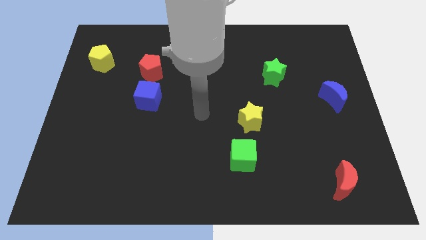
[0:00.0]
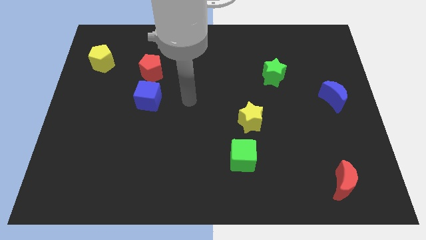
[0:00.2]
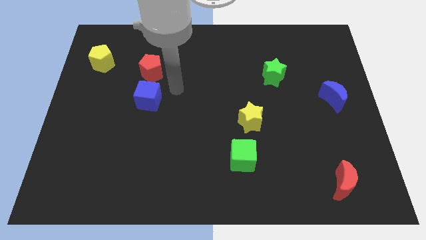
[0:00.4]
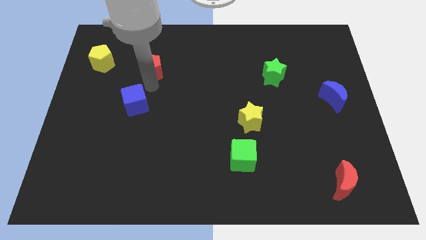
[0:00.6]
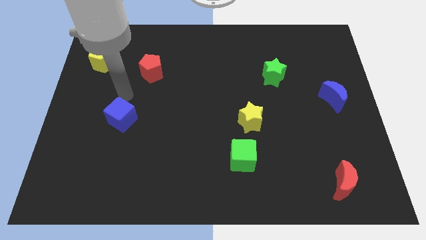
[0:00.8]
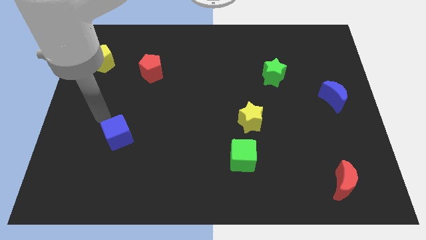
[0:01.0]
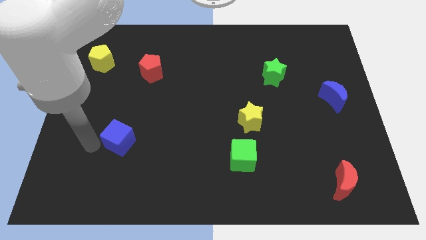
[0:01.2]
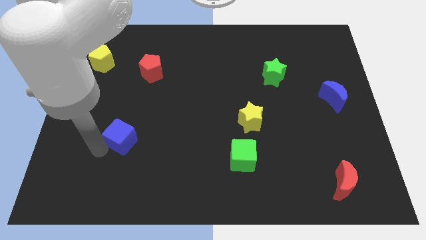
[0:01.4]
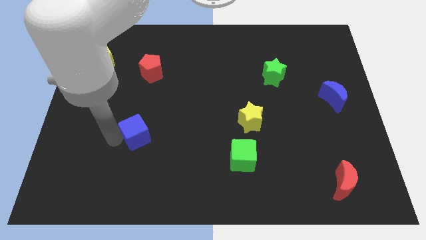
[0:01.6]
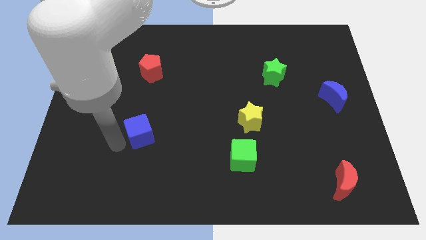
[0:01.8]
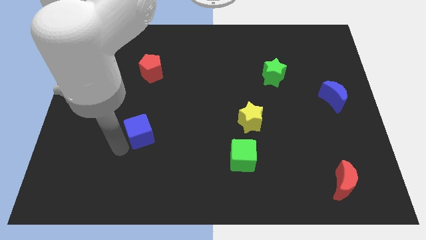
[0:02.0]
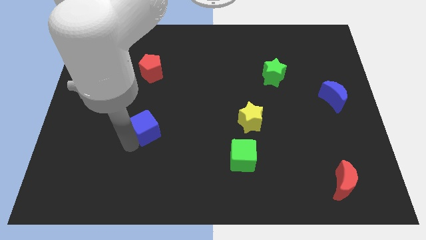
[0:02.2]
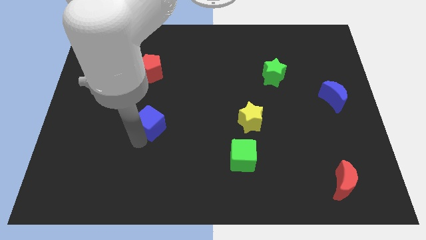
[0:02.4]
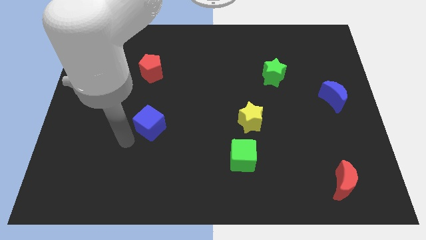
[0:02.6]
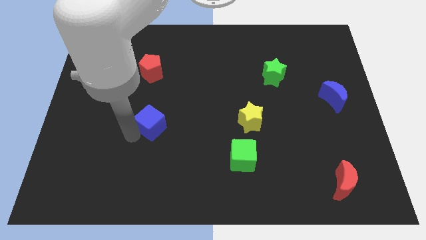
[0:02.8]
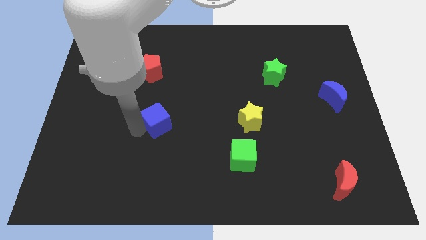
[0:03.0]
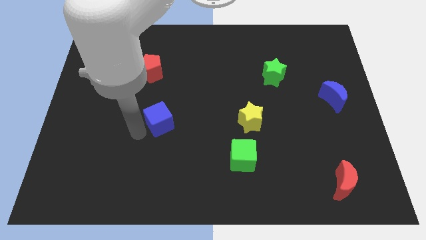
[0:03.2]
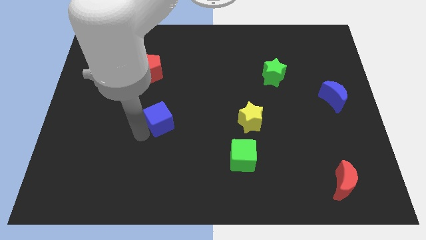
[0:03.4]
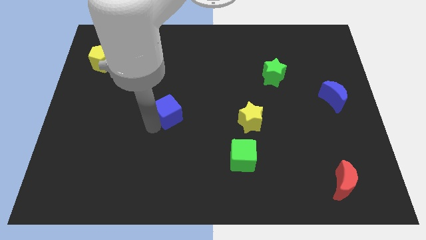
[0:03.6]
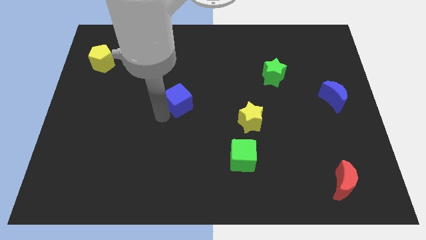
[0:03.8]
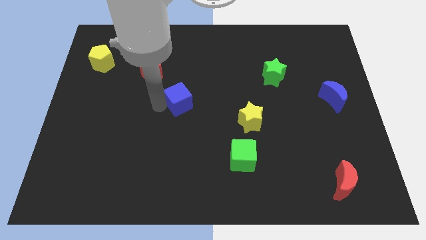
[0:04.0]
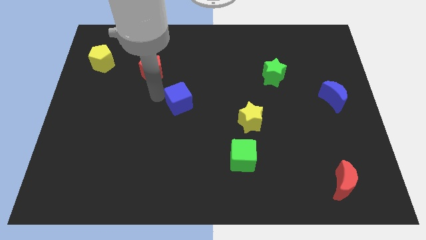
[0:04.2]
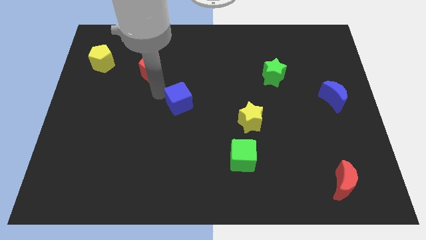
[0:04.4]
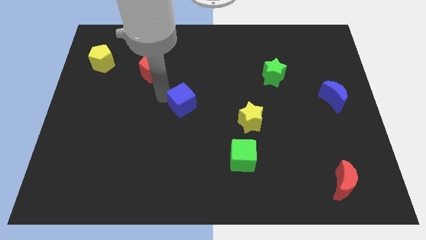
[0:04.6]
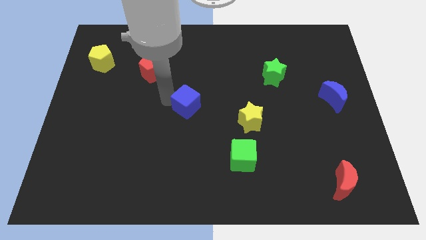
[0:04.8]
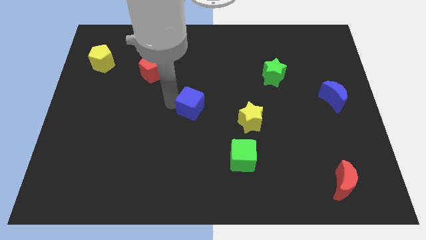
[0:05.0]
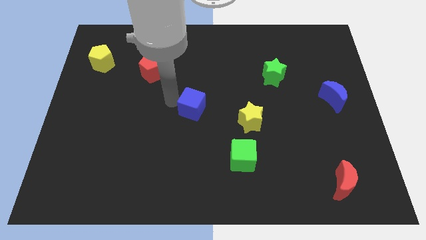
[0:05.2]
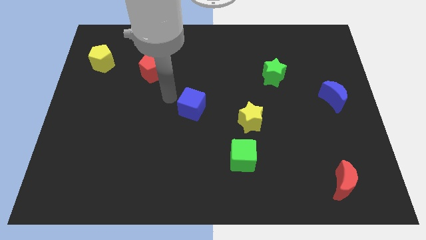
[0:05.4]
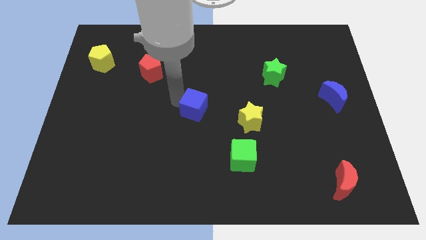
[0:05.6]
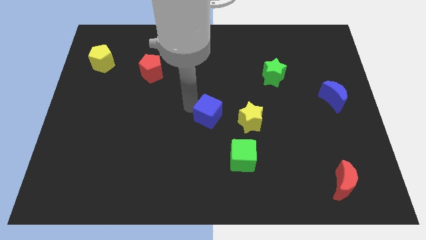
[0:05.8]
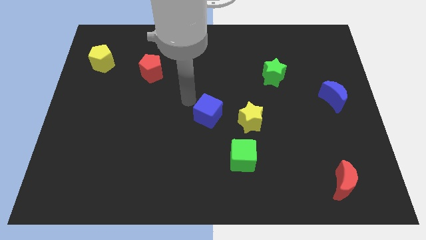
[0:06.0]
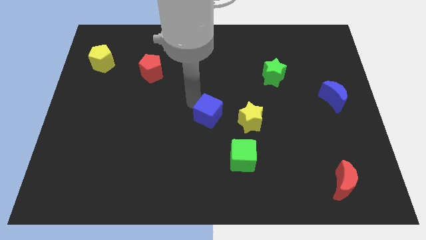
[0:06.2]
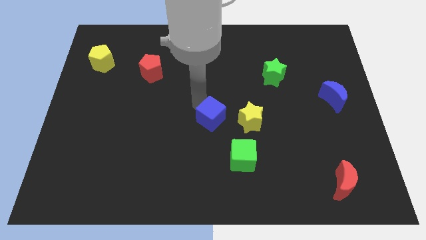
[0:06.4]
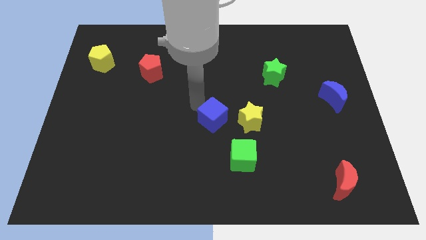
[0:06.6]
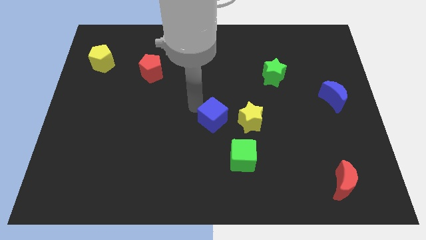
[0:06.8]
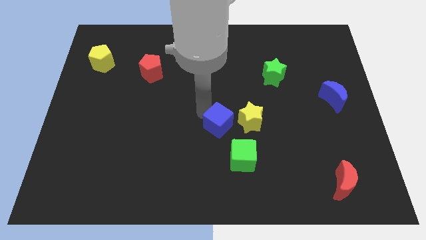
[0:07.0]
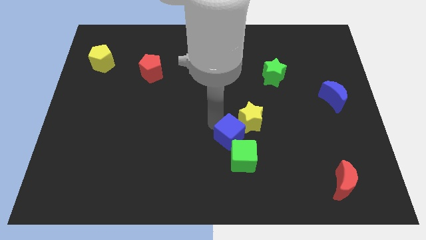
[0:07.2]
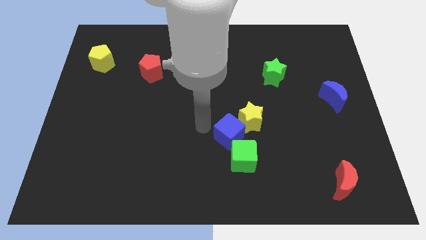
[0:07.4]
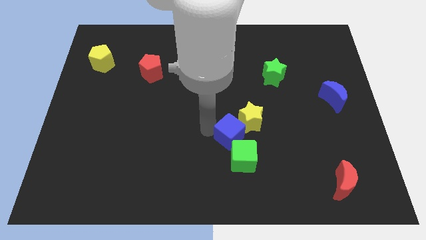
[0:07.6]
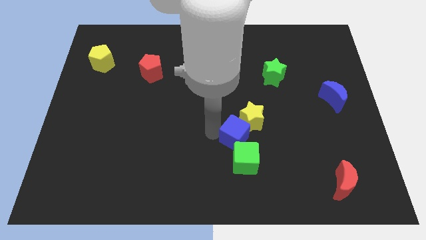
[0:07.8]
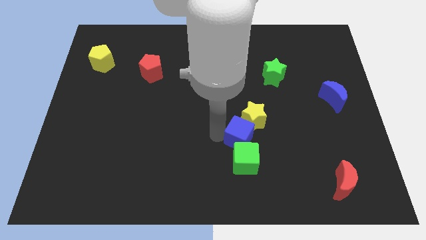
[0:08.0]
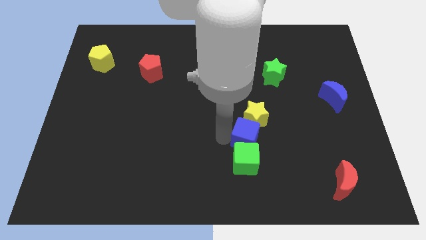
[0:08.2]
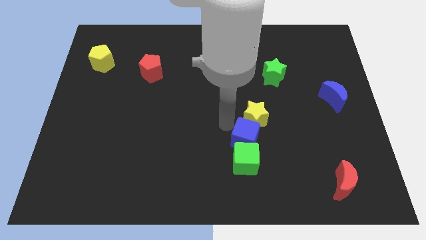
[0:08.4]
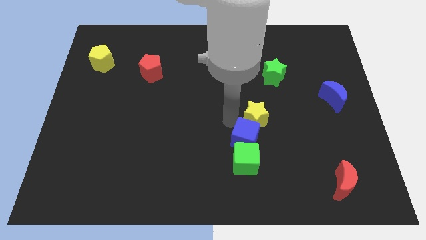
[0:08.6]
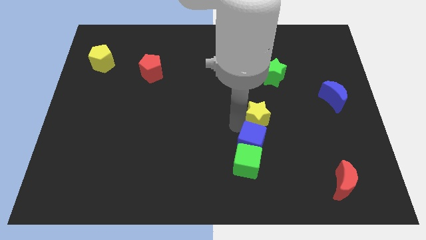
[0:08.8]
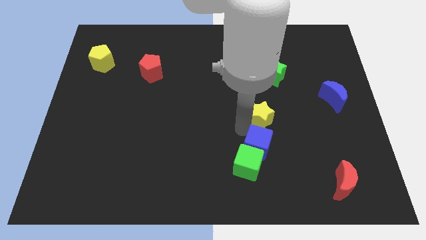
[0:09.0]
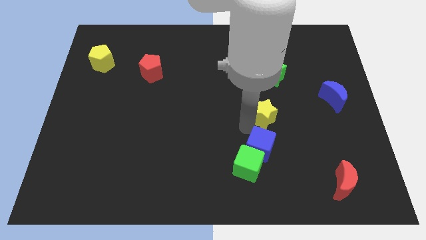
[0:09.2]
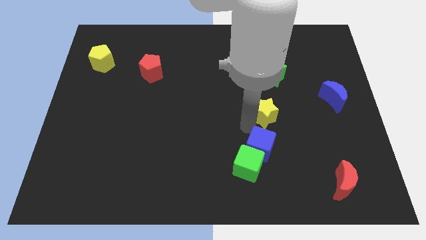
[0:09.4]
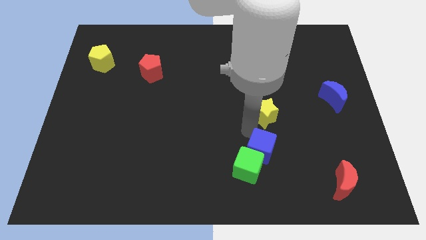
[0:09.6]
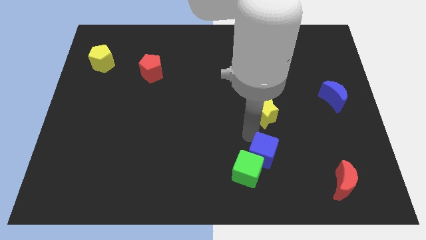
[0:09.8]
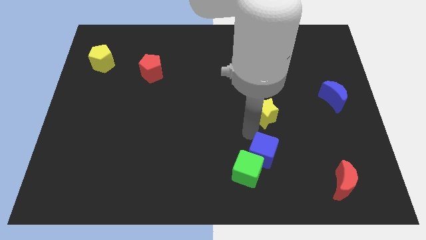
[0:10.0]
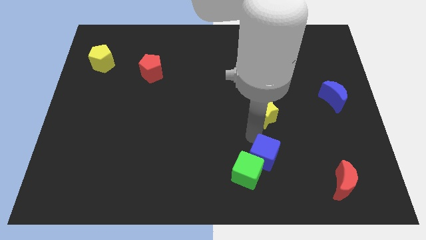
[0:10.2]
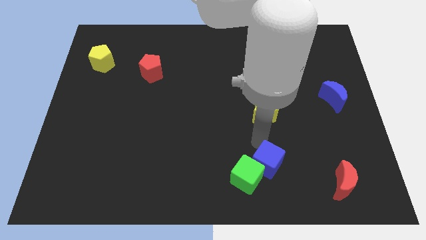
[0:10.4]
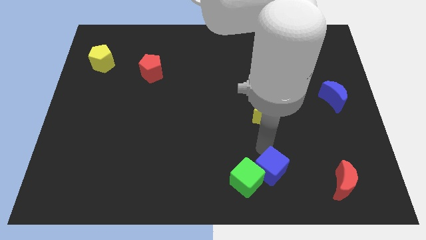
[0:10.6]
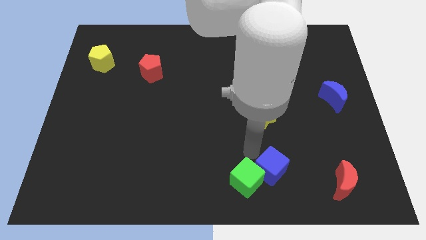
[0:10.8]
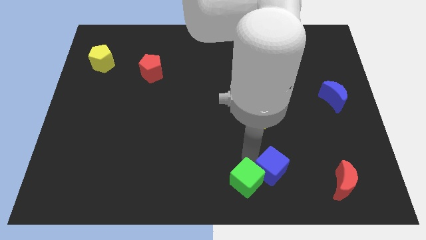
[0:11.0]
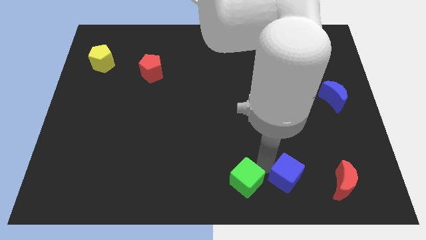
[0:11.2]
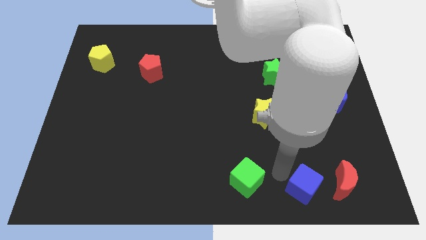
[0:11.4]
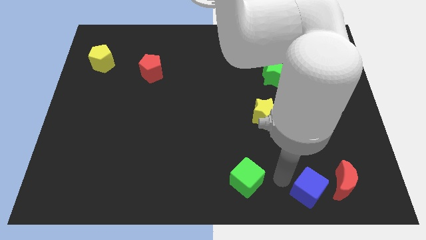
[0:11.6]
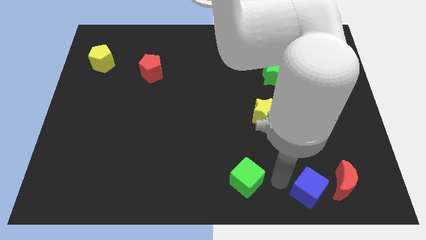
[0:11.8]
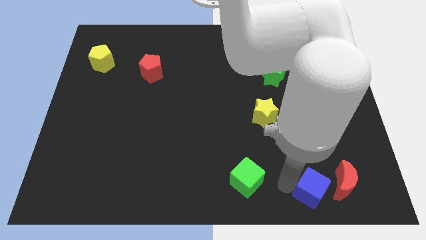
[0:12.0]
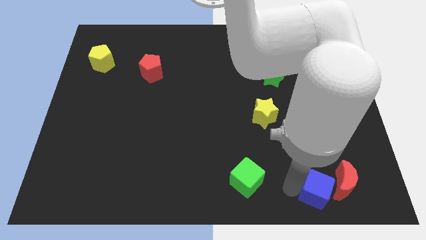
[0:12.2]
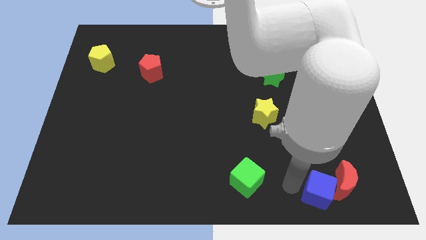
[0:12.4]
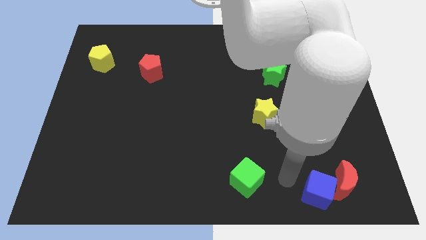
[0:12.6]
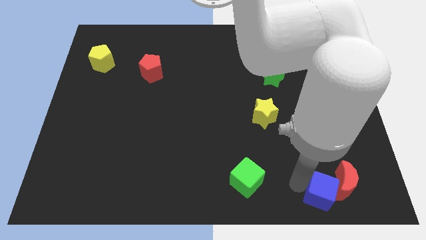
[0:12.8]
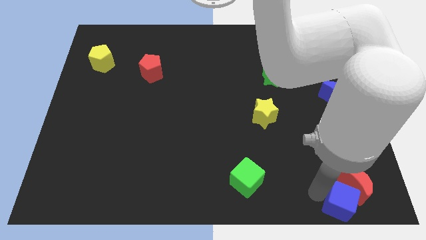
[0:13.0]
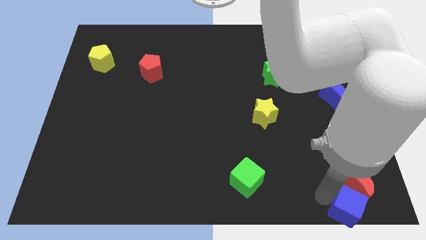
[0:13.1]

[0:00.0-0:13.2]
slide the blue cube to the bottom right

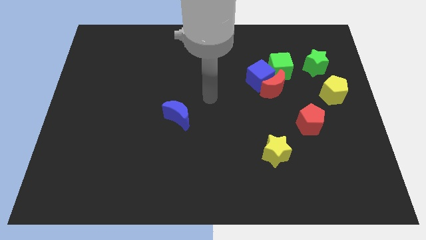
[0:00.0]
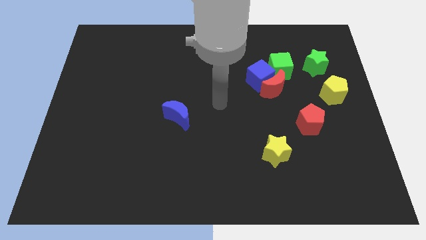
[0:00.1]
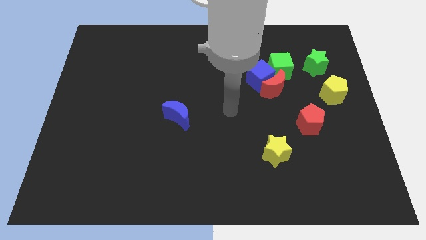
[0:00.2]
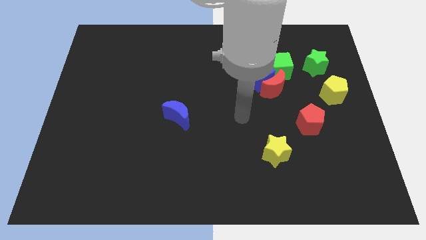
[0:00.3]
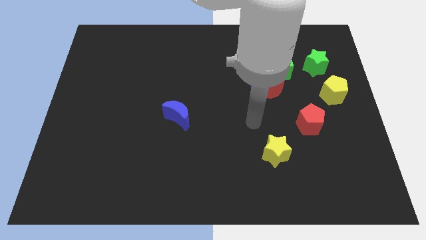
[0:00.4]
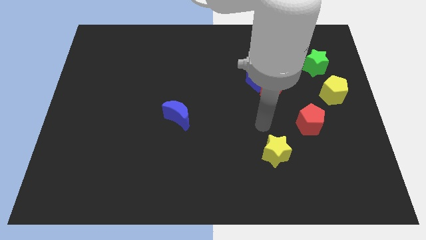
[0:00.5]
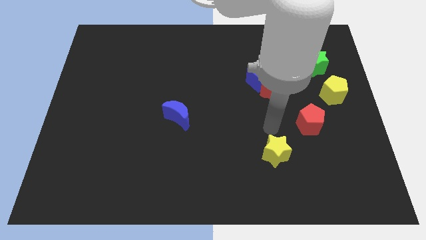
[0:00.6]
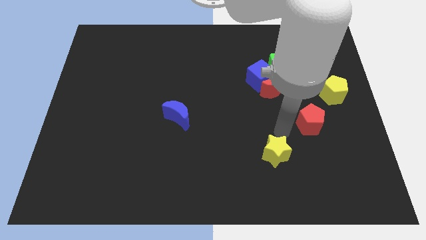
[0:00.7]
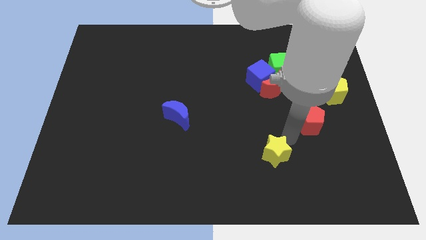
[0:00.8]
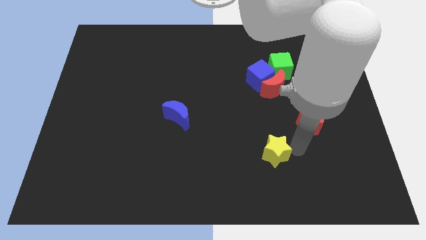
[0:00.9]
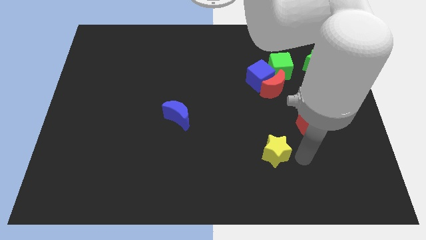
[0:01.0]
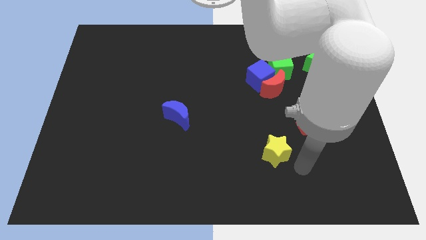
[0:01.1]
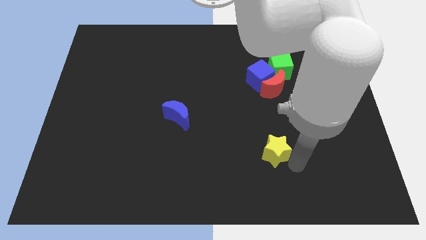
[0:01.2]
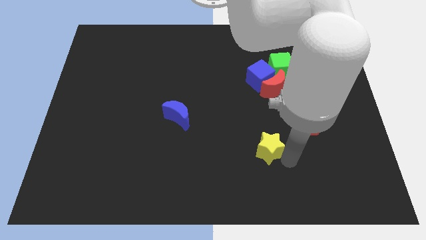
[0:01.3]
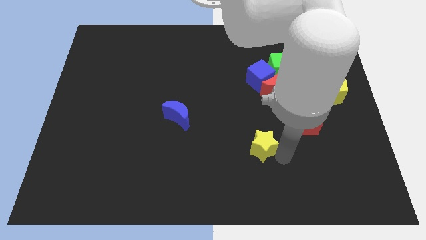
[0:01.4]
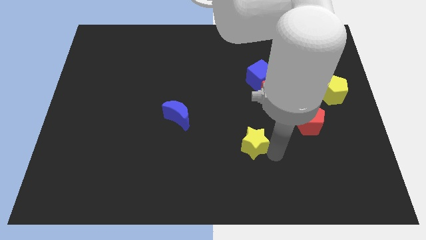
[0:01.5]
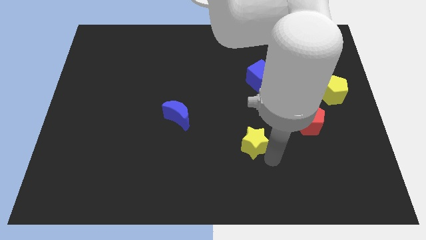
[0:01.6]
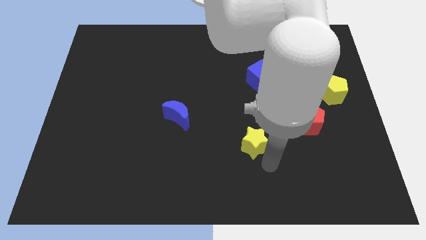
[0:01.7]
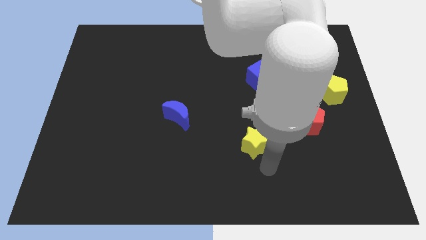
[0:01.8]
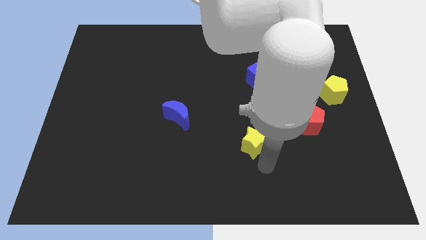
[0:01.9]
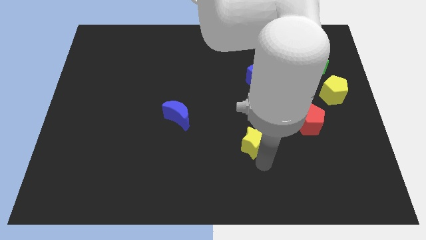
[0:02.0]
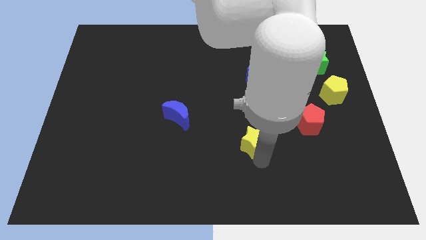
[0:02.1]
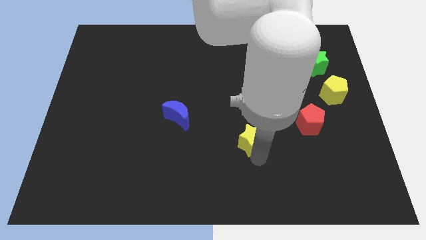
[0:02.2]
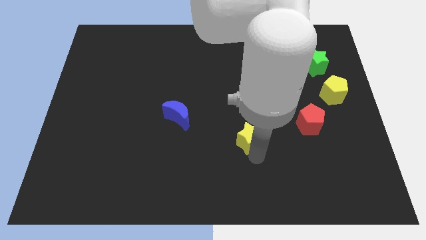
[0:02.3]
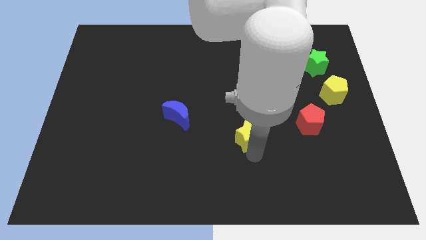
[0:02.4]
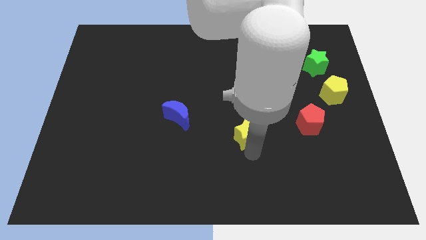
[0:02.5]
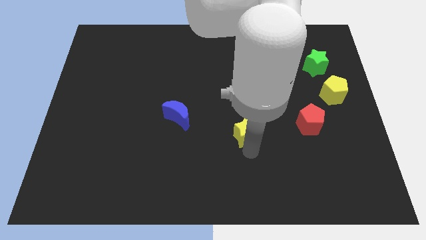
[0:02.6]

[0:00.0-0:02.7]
push the yellow star to the center
